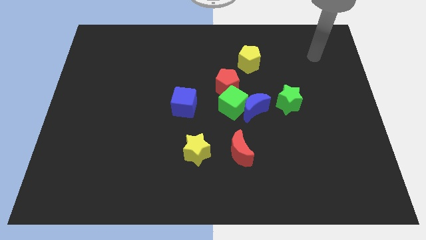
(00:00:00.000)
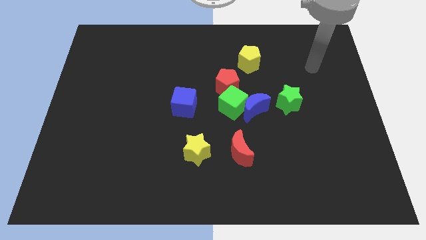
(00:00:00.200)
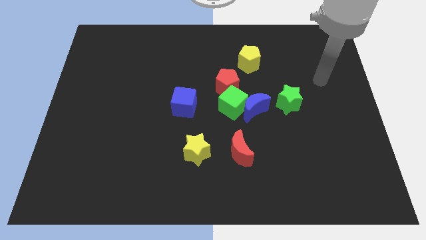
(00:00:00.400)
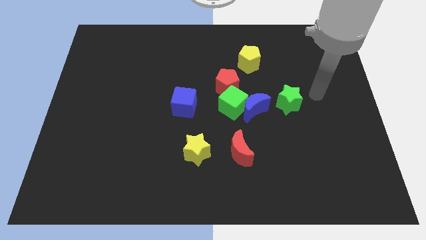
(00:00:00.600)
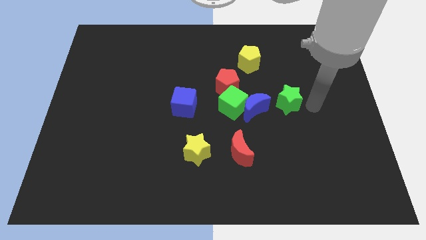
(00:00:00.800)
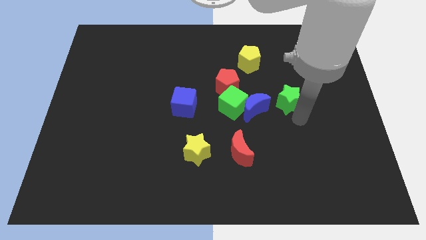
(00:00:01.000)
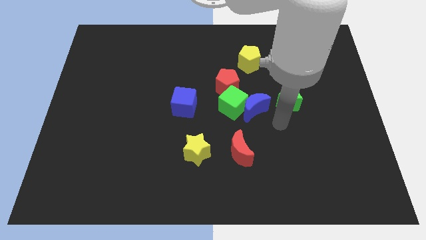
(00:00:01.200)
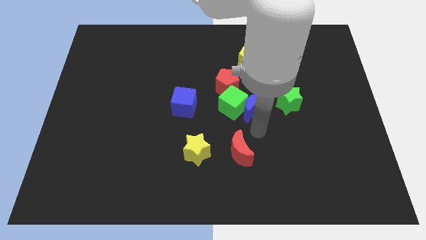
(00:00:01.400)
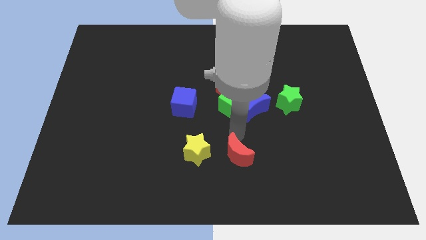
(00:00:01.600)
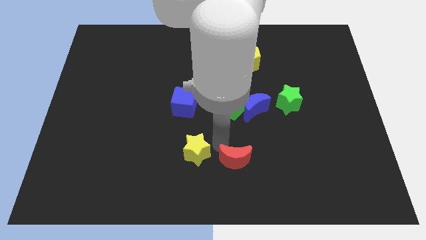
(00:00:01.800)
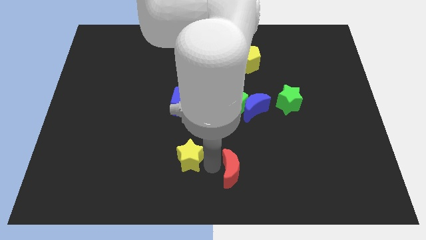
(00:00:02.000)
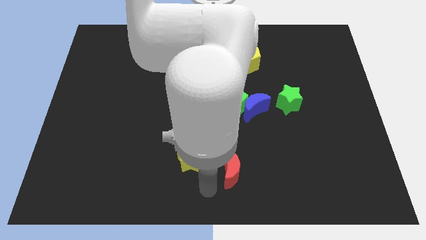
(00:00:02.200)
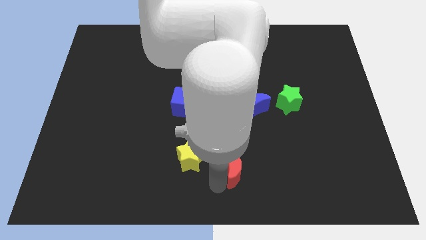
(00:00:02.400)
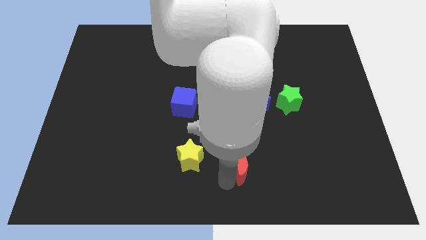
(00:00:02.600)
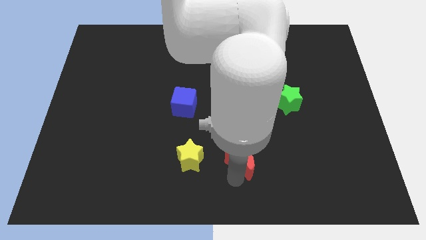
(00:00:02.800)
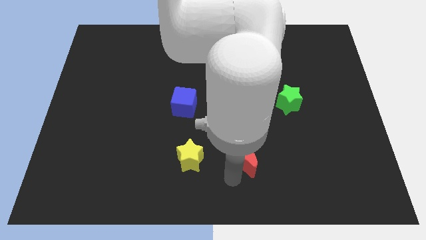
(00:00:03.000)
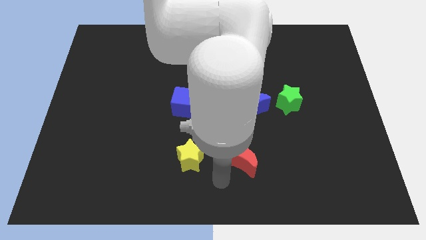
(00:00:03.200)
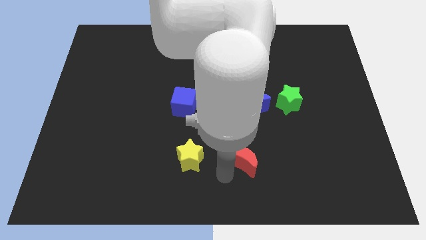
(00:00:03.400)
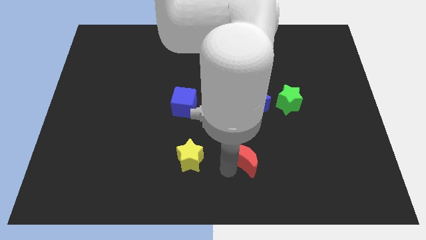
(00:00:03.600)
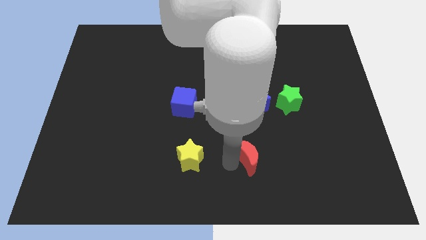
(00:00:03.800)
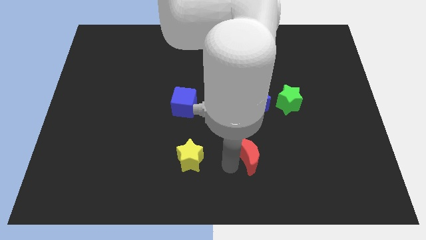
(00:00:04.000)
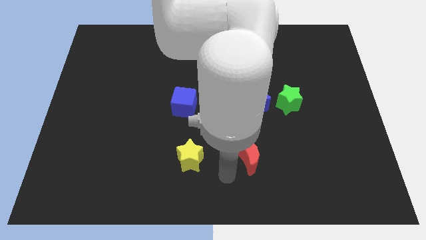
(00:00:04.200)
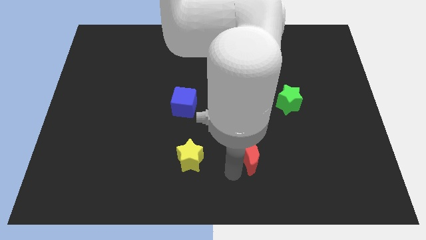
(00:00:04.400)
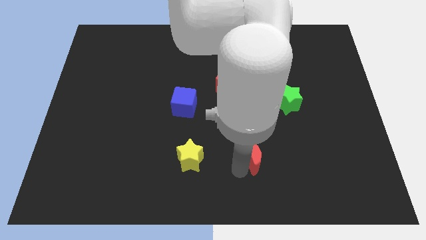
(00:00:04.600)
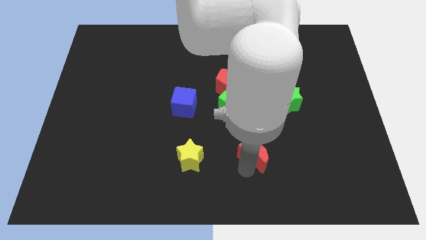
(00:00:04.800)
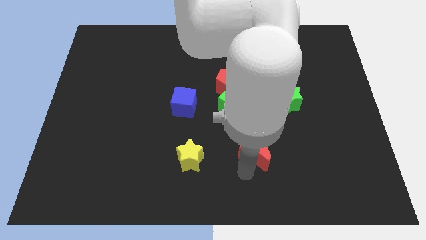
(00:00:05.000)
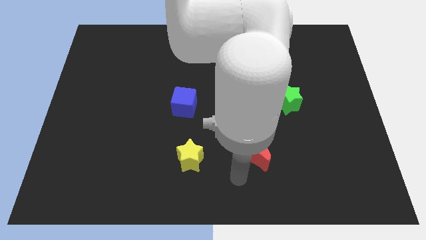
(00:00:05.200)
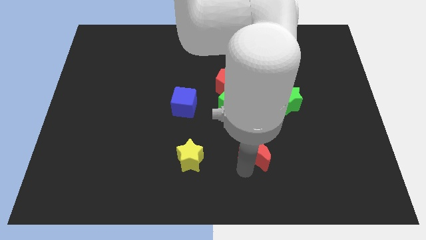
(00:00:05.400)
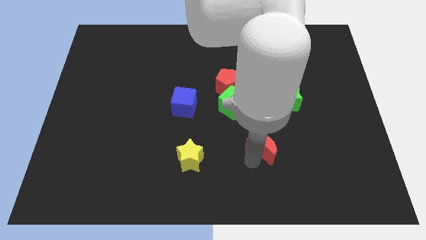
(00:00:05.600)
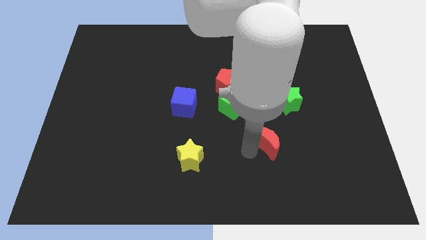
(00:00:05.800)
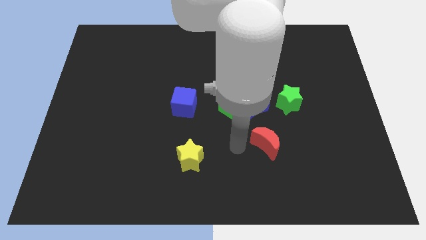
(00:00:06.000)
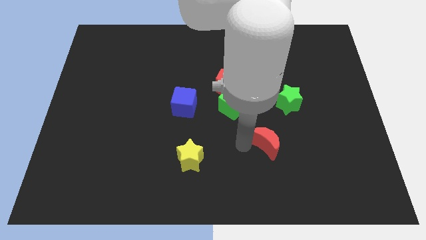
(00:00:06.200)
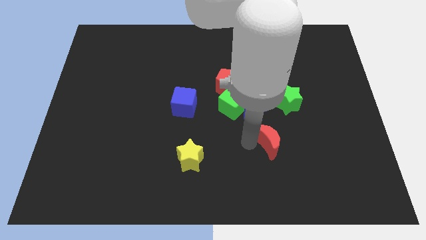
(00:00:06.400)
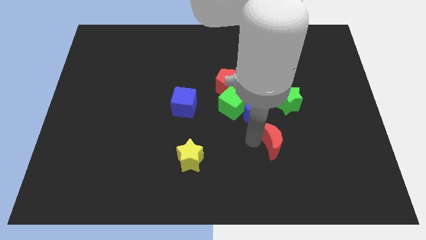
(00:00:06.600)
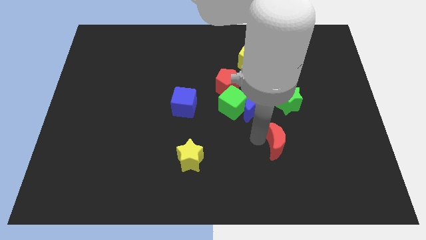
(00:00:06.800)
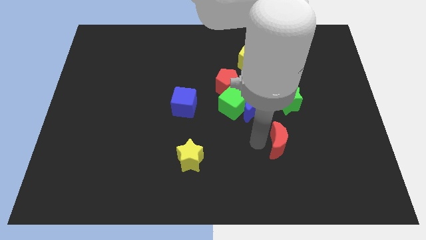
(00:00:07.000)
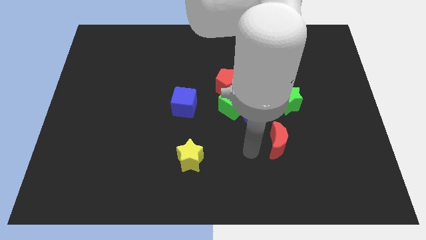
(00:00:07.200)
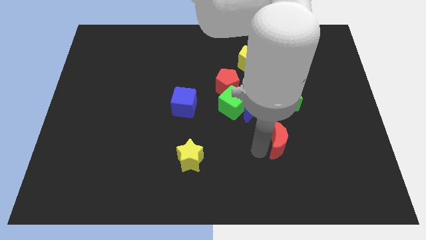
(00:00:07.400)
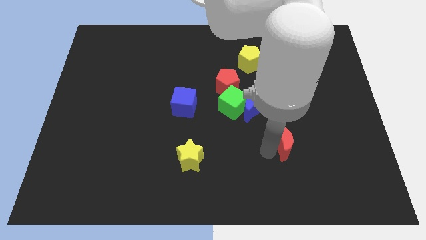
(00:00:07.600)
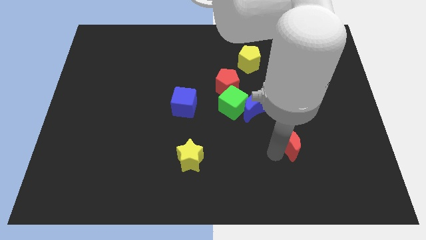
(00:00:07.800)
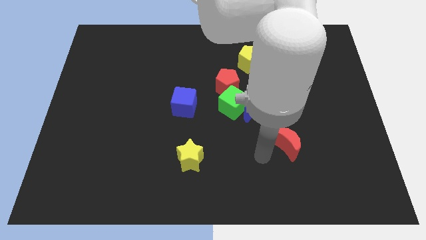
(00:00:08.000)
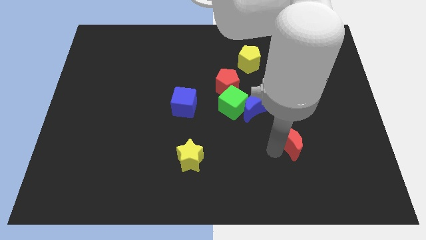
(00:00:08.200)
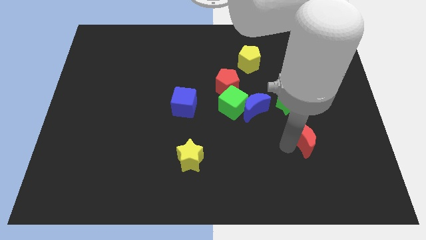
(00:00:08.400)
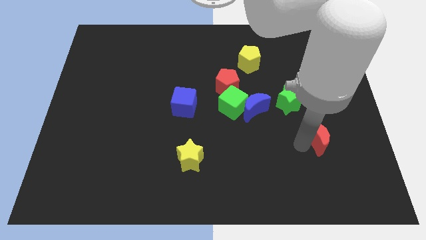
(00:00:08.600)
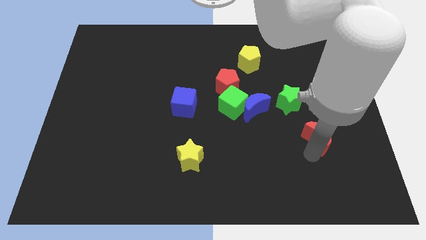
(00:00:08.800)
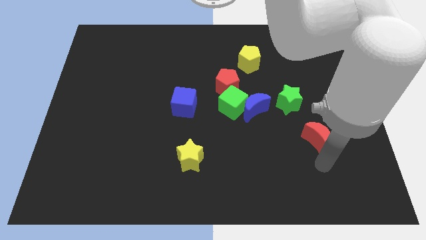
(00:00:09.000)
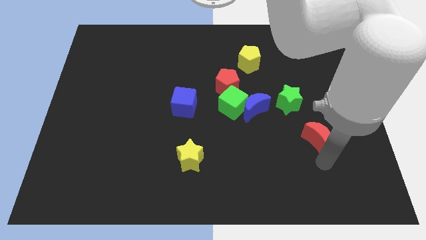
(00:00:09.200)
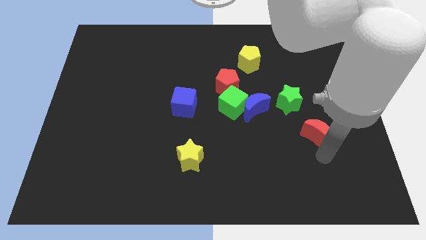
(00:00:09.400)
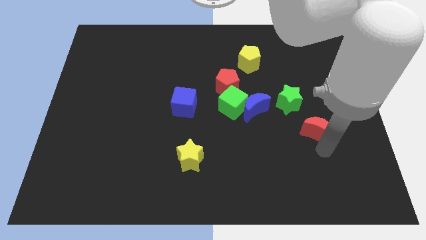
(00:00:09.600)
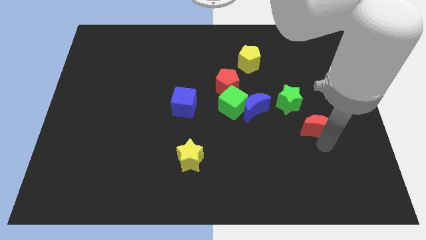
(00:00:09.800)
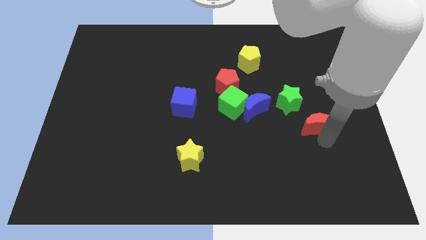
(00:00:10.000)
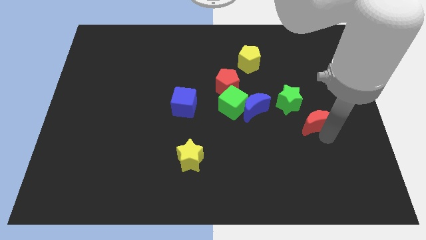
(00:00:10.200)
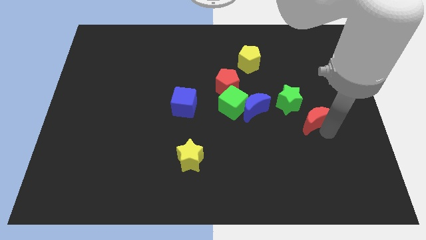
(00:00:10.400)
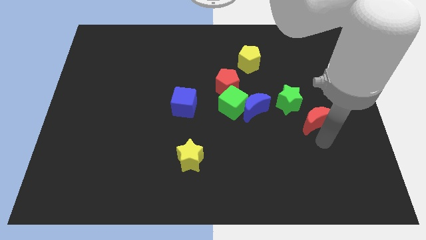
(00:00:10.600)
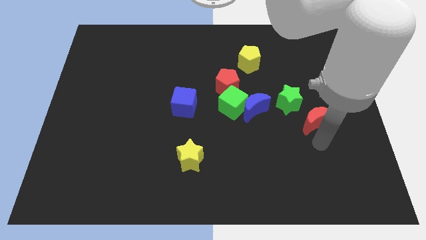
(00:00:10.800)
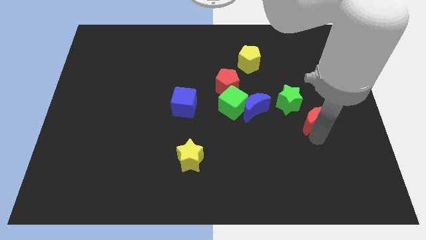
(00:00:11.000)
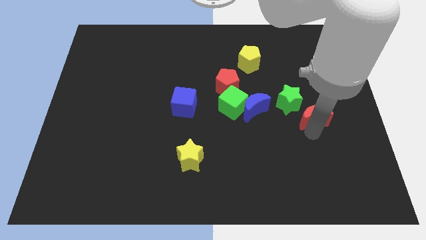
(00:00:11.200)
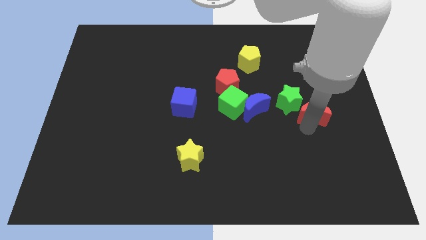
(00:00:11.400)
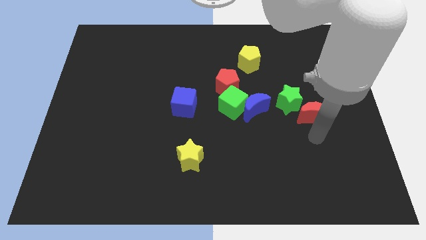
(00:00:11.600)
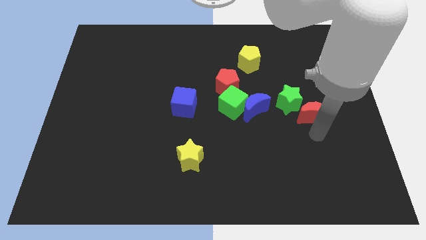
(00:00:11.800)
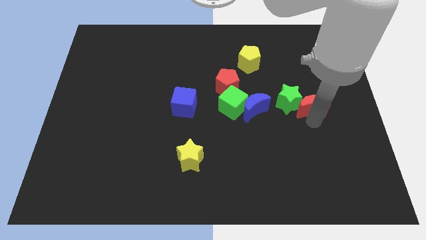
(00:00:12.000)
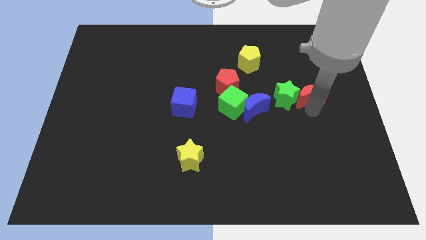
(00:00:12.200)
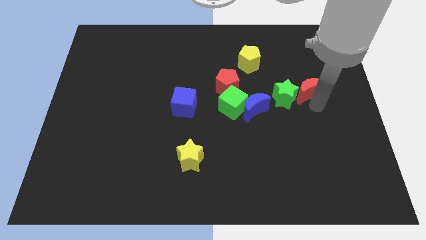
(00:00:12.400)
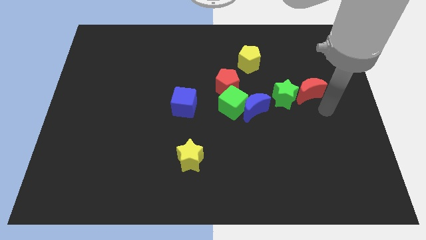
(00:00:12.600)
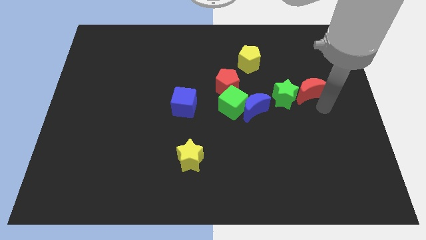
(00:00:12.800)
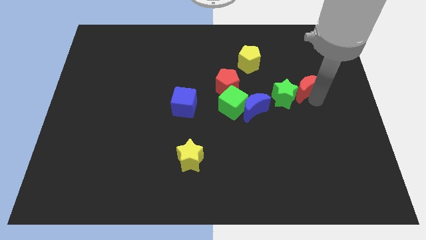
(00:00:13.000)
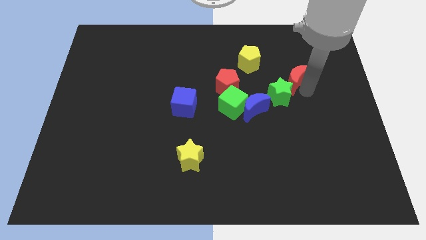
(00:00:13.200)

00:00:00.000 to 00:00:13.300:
slide the red moon to the top of the green star
